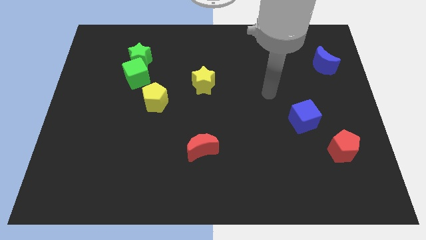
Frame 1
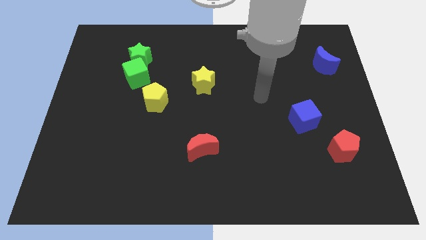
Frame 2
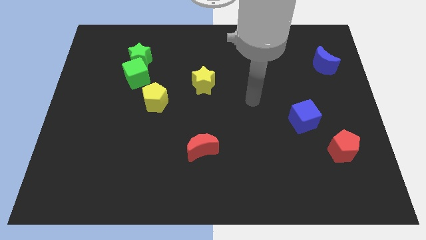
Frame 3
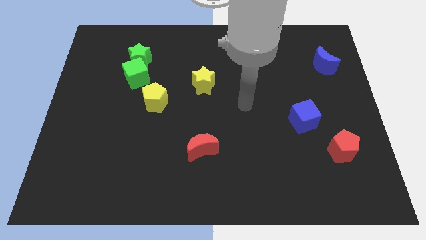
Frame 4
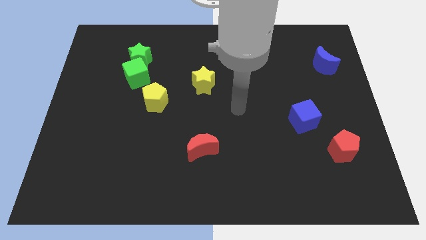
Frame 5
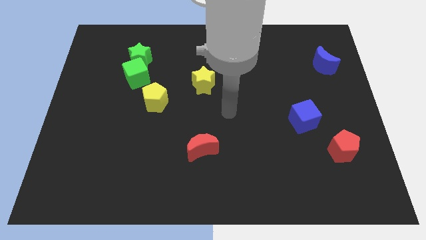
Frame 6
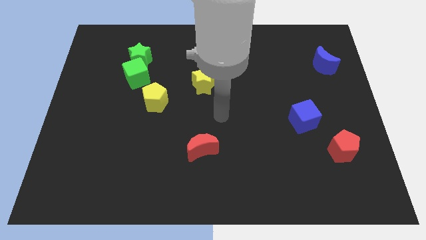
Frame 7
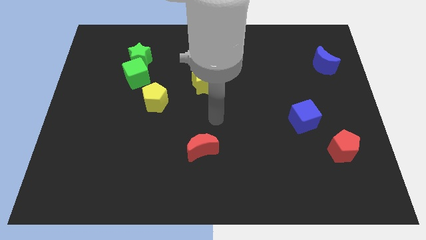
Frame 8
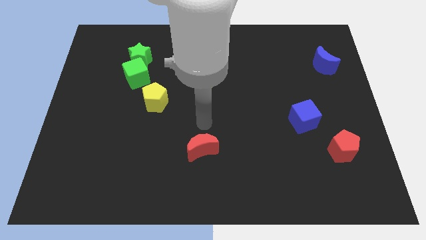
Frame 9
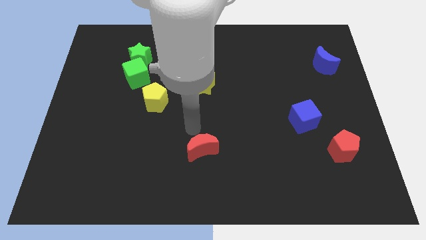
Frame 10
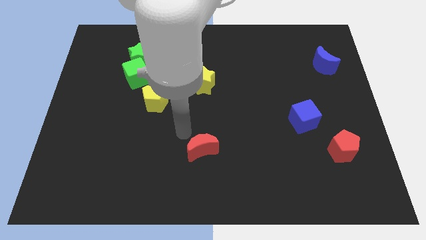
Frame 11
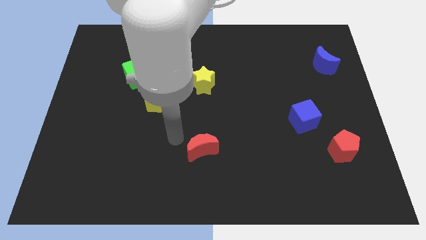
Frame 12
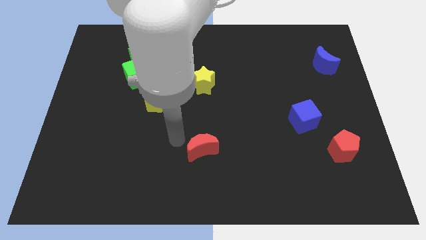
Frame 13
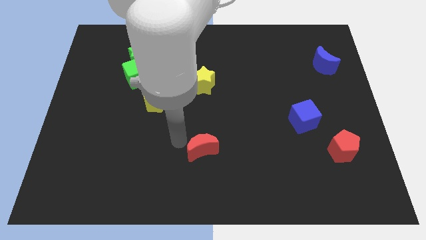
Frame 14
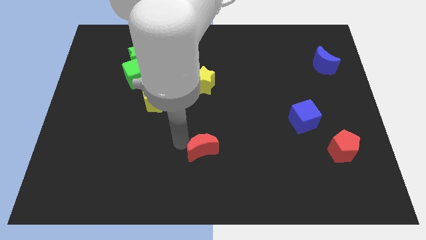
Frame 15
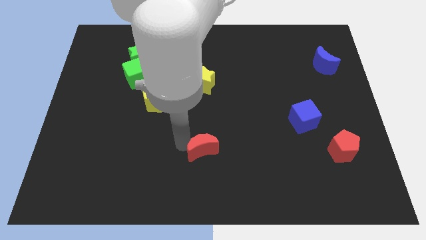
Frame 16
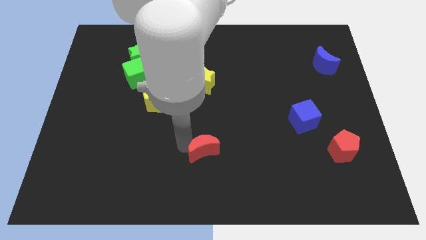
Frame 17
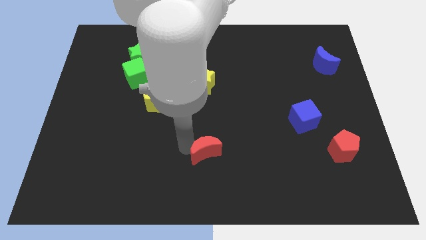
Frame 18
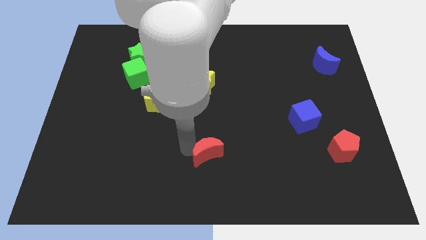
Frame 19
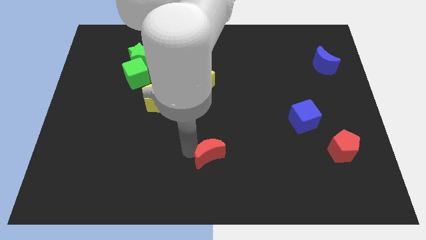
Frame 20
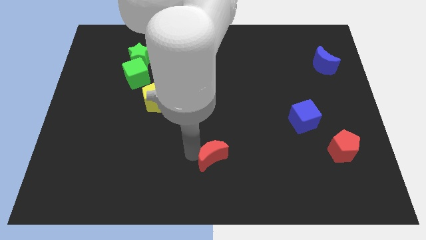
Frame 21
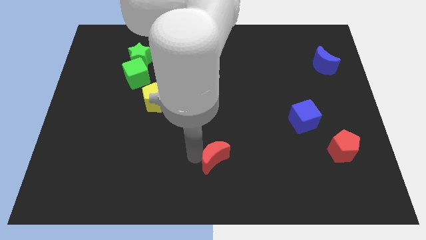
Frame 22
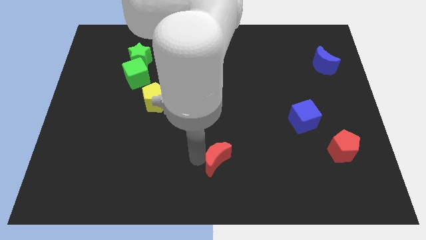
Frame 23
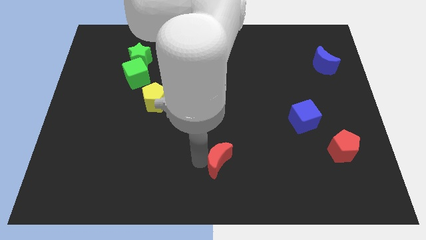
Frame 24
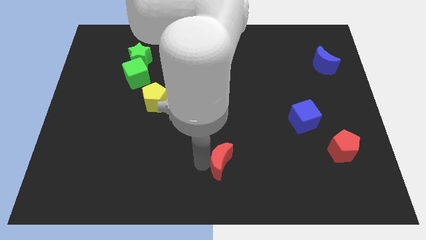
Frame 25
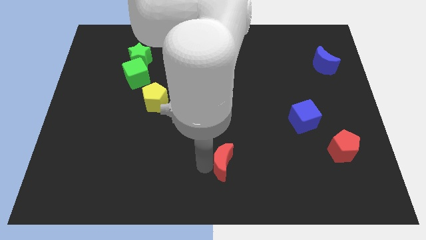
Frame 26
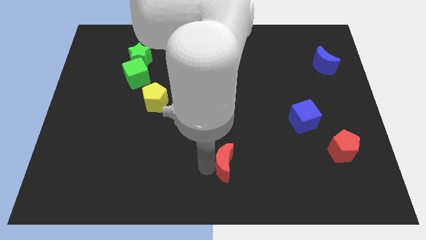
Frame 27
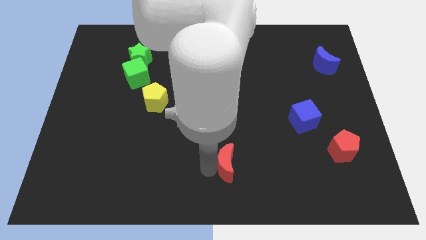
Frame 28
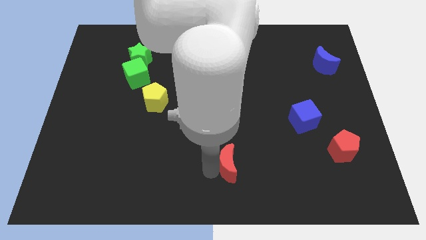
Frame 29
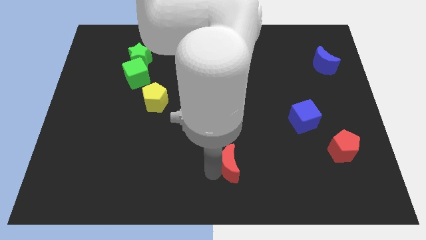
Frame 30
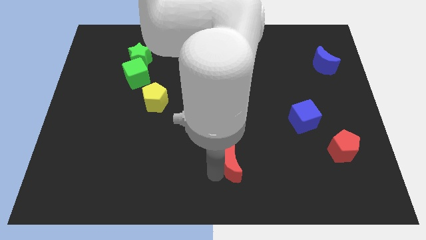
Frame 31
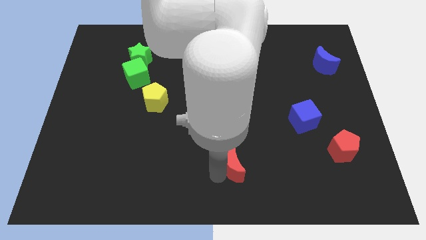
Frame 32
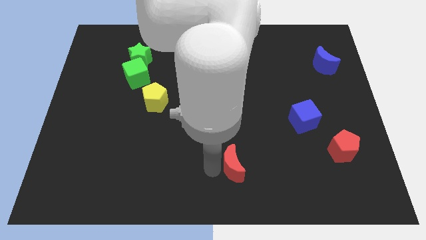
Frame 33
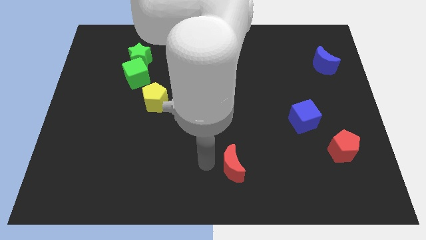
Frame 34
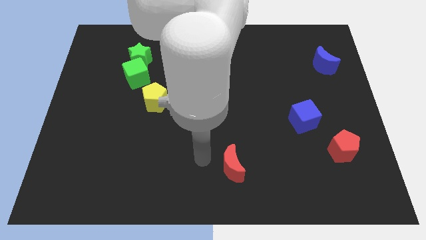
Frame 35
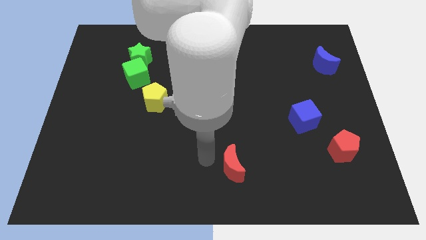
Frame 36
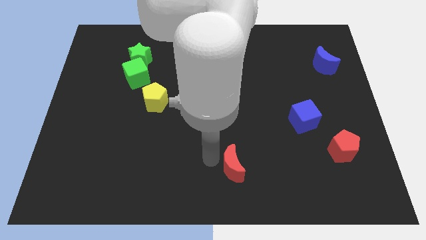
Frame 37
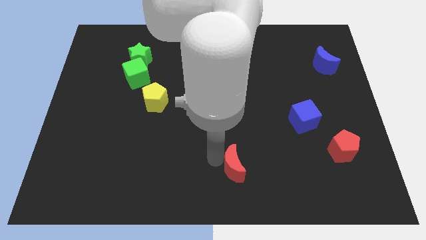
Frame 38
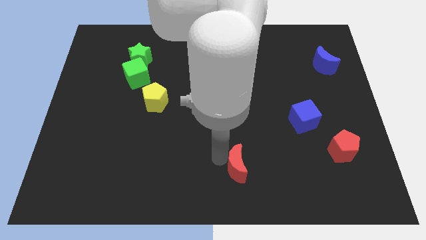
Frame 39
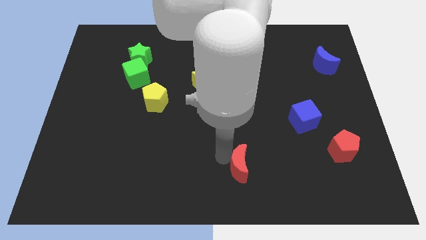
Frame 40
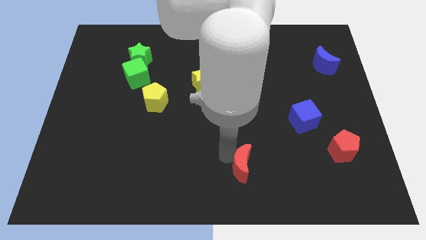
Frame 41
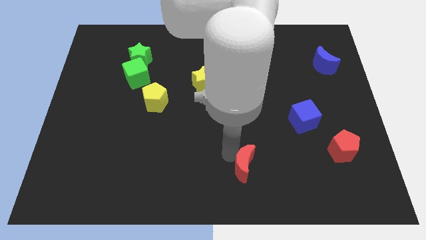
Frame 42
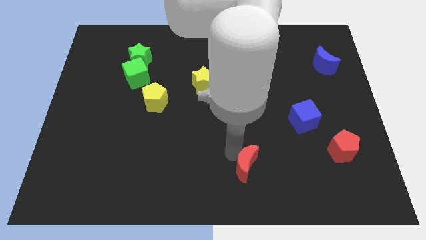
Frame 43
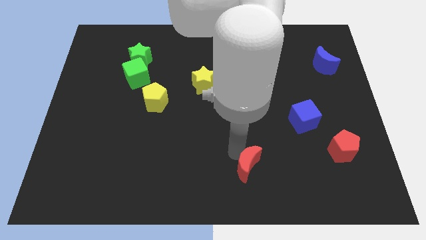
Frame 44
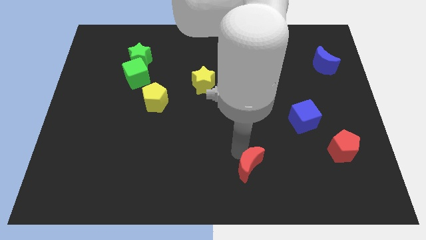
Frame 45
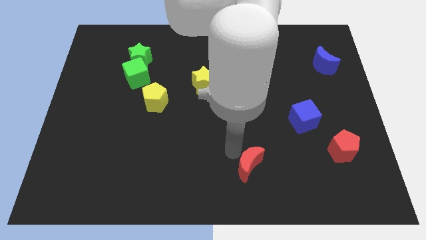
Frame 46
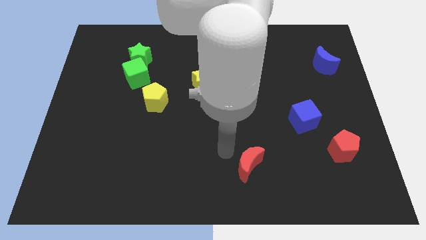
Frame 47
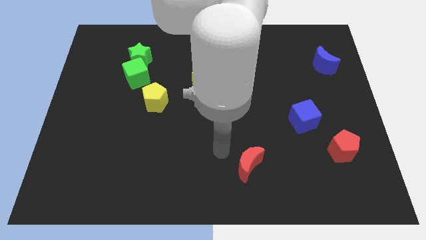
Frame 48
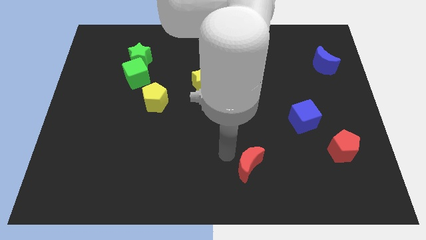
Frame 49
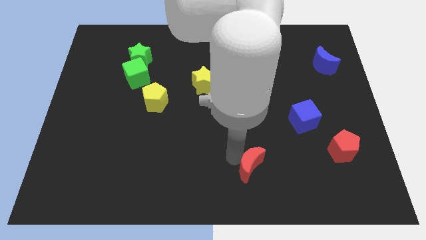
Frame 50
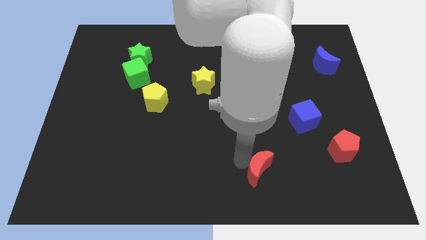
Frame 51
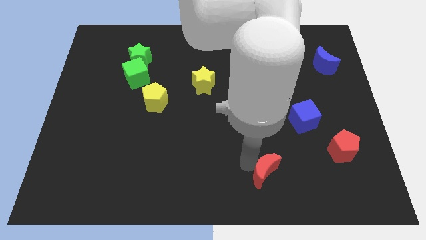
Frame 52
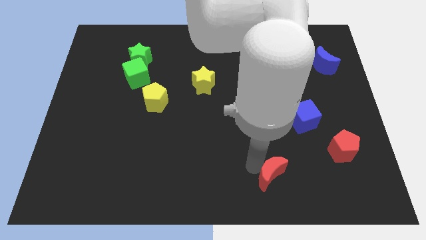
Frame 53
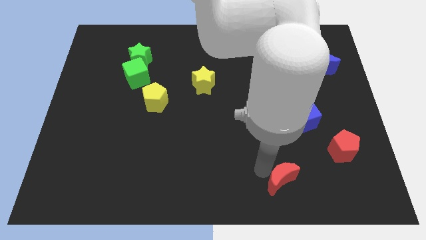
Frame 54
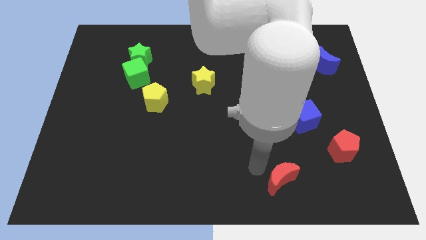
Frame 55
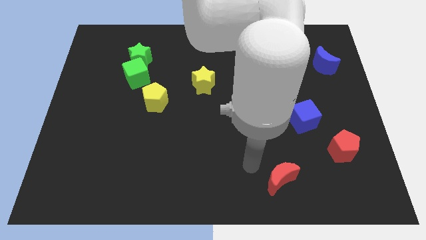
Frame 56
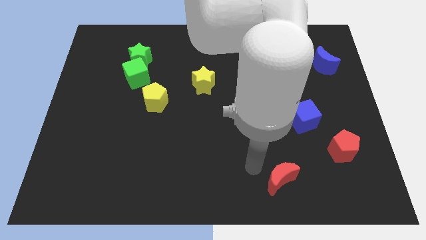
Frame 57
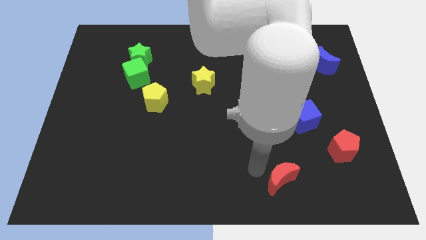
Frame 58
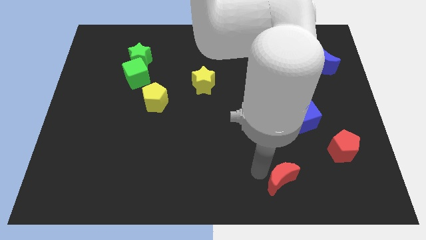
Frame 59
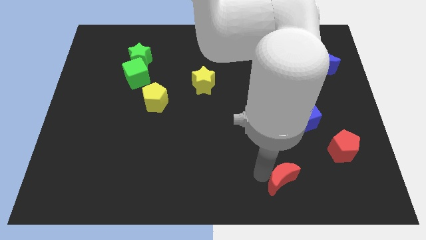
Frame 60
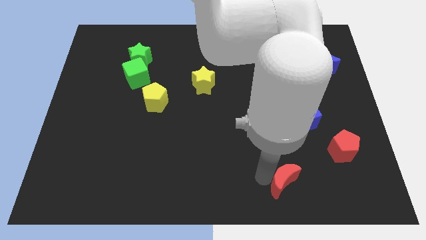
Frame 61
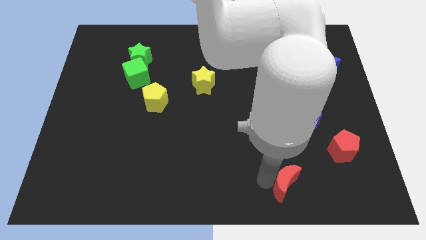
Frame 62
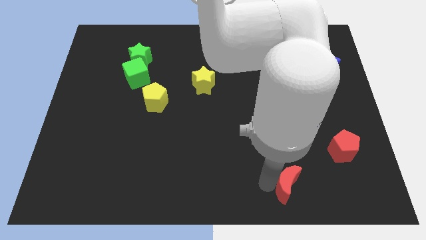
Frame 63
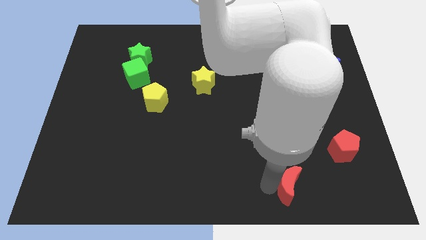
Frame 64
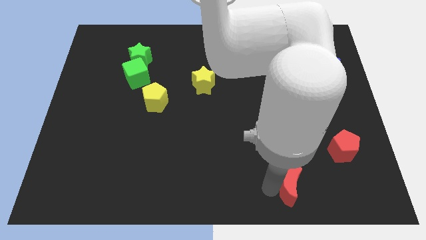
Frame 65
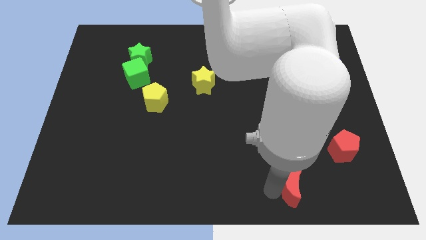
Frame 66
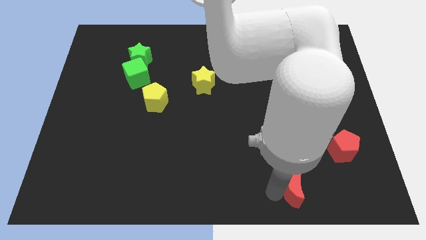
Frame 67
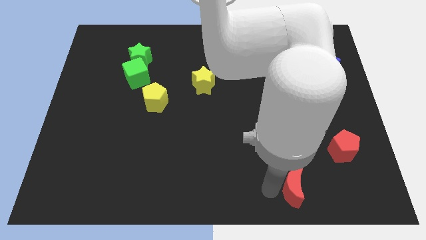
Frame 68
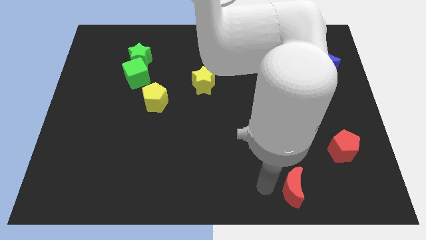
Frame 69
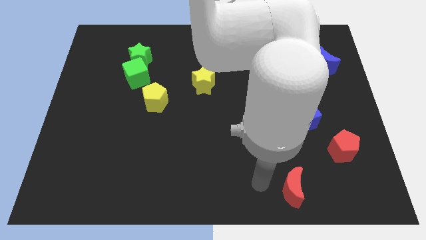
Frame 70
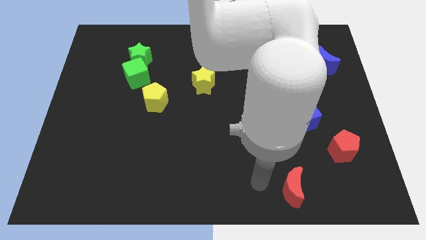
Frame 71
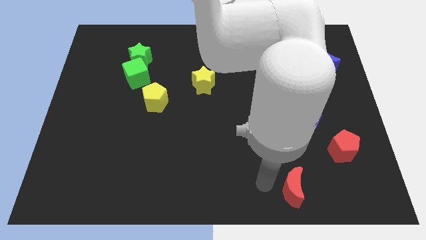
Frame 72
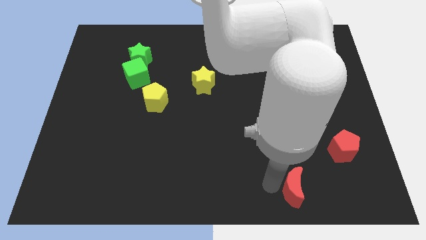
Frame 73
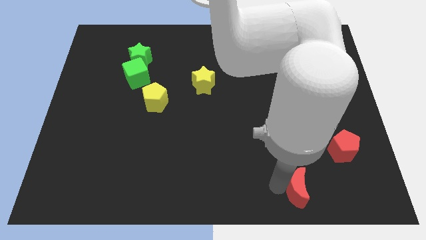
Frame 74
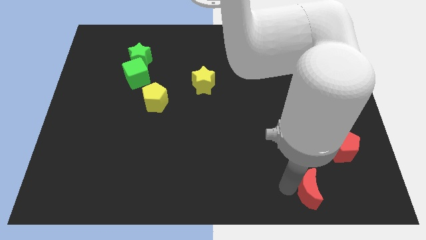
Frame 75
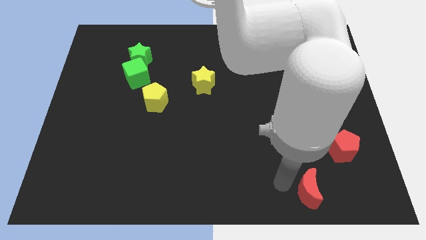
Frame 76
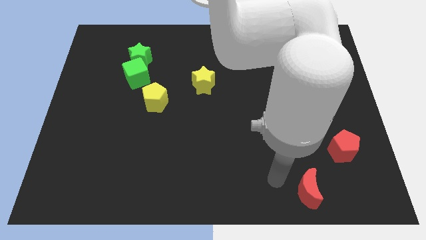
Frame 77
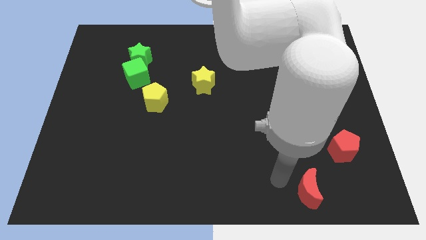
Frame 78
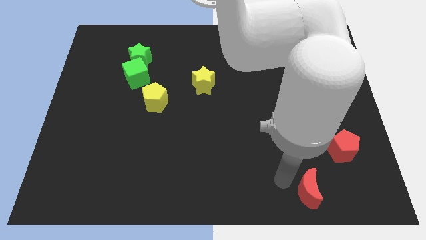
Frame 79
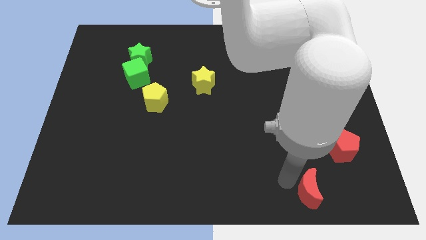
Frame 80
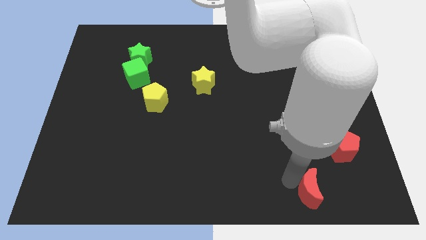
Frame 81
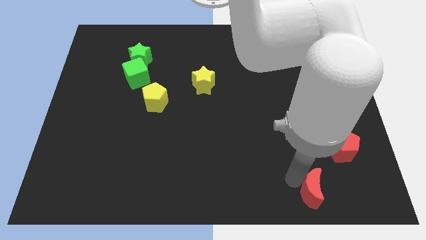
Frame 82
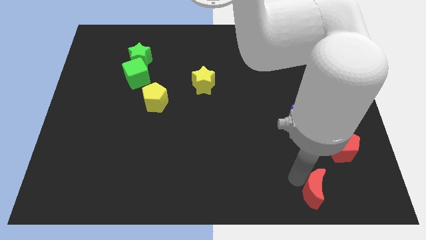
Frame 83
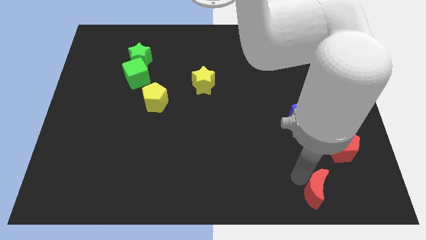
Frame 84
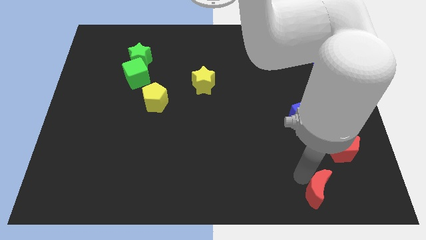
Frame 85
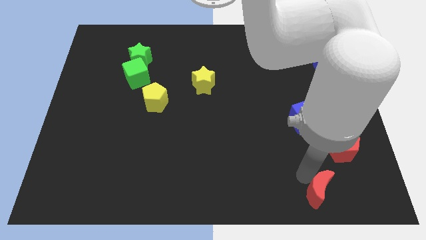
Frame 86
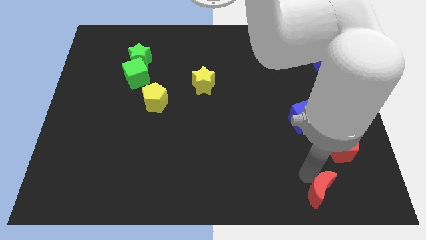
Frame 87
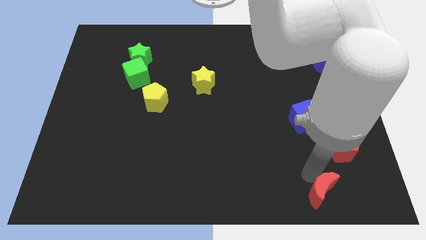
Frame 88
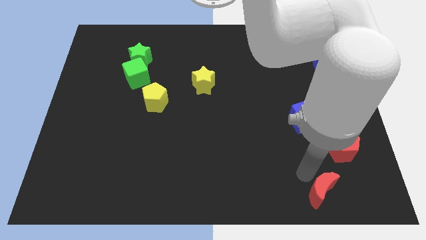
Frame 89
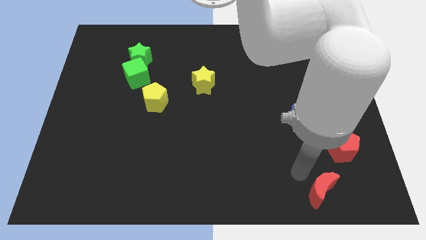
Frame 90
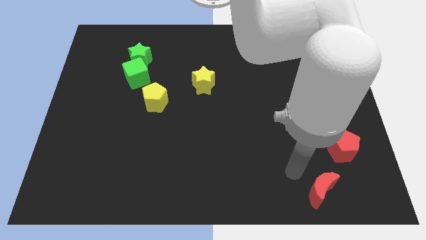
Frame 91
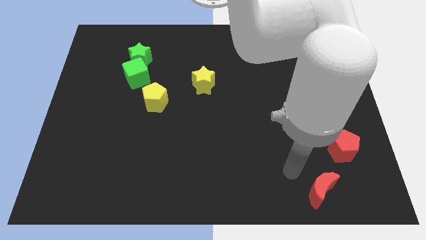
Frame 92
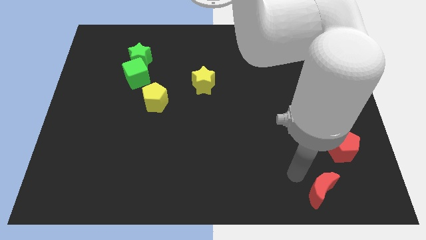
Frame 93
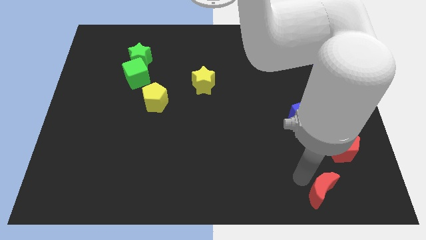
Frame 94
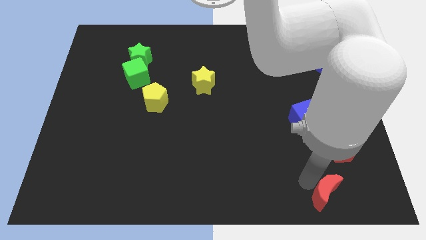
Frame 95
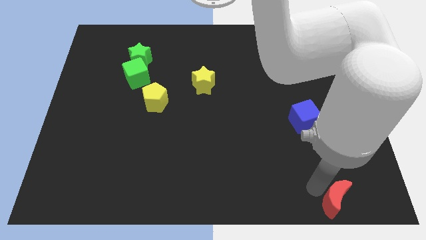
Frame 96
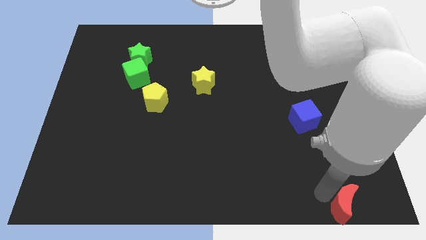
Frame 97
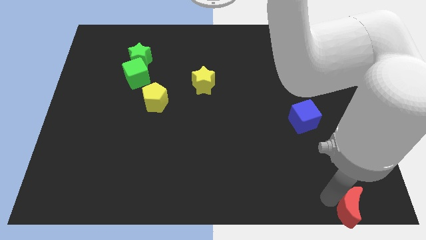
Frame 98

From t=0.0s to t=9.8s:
push the red moon to the lower right corner
